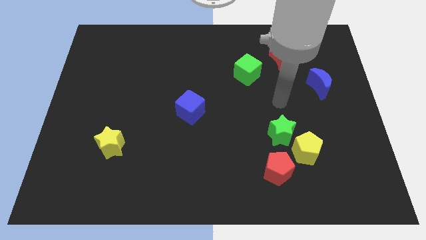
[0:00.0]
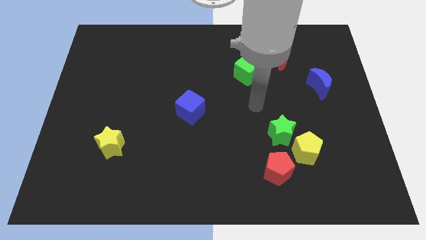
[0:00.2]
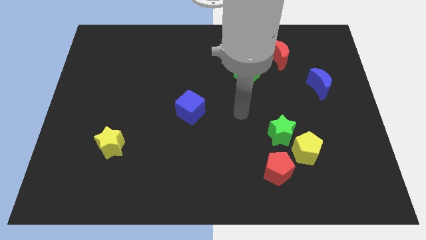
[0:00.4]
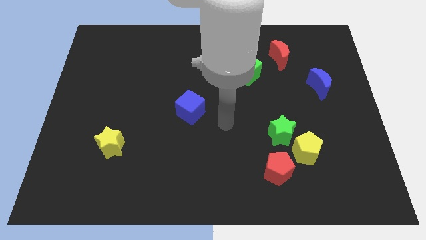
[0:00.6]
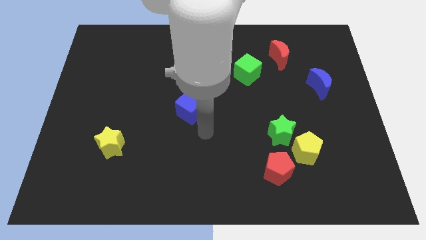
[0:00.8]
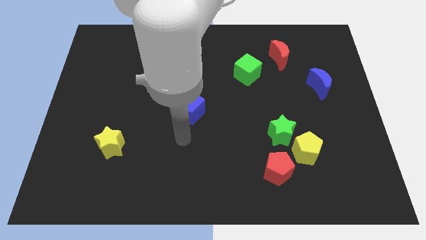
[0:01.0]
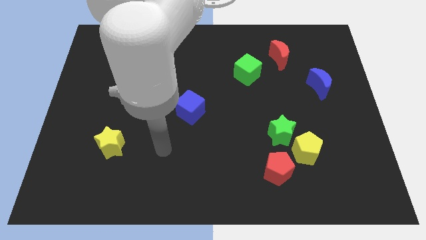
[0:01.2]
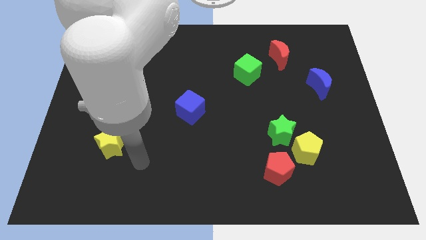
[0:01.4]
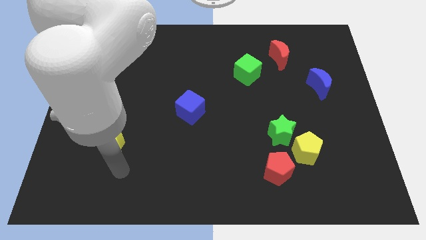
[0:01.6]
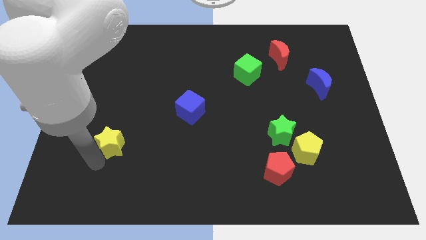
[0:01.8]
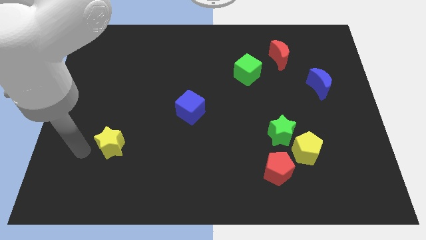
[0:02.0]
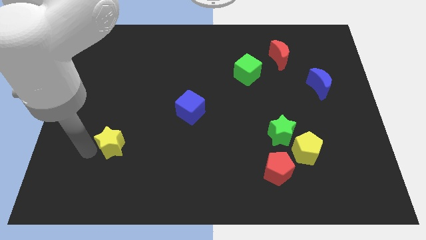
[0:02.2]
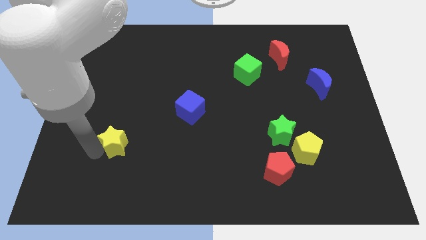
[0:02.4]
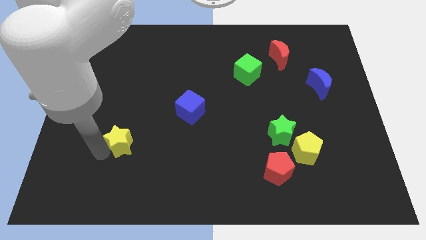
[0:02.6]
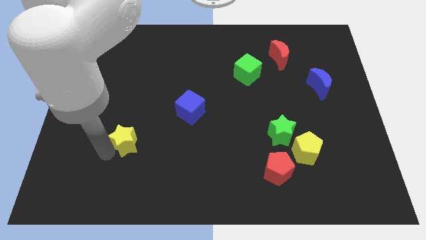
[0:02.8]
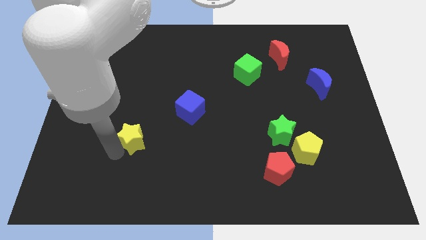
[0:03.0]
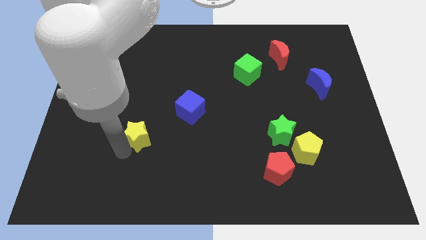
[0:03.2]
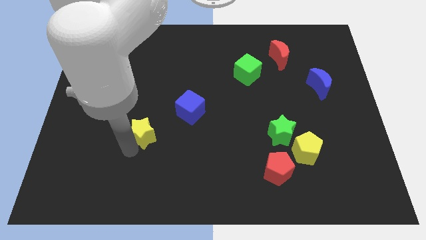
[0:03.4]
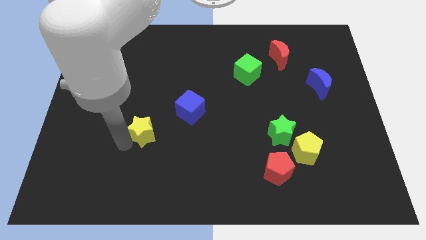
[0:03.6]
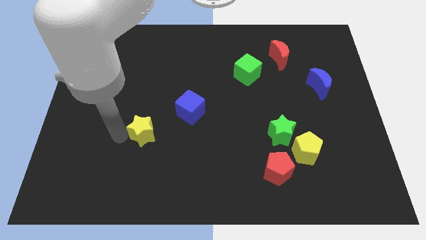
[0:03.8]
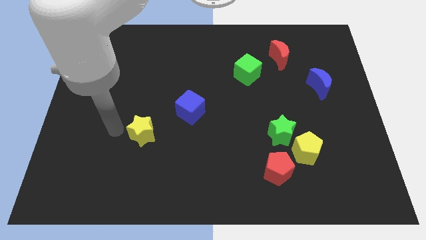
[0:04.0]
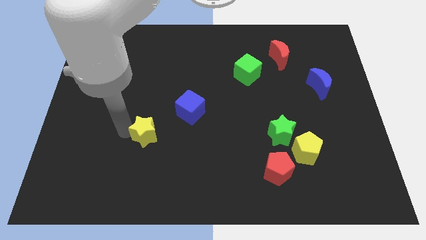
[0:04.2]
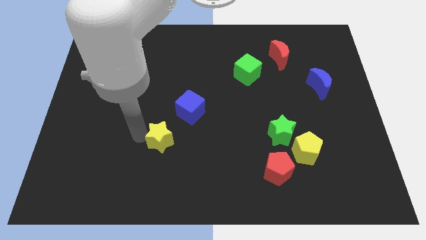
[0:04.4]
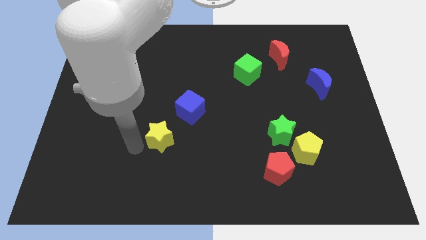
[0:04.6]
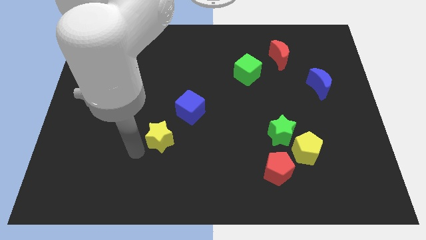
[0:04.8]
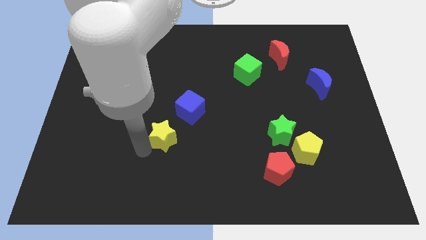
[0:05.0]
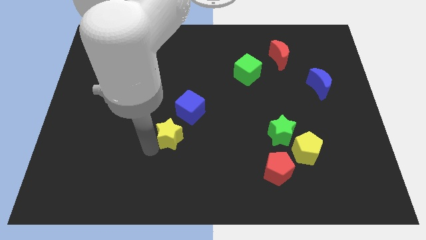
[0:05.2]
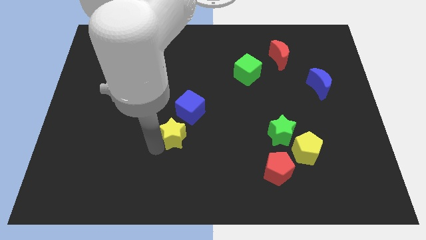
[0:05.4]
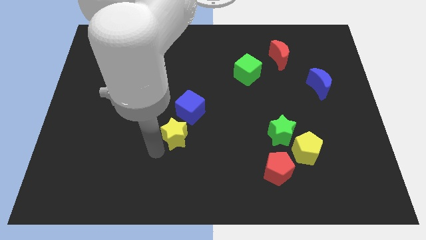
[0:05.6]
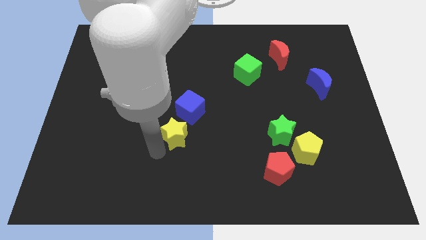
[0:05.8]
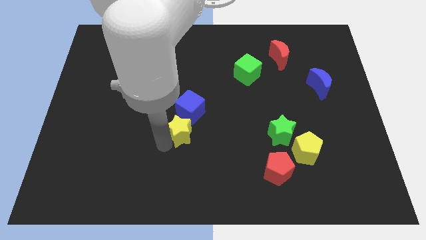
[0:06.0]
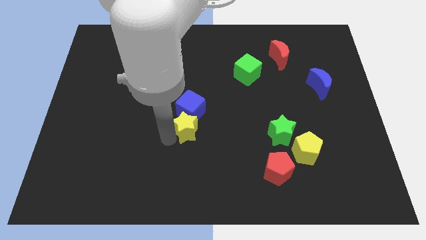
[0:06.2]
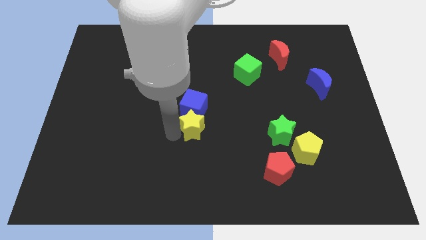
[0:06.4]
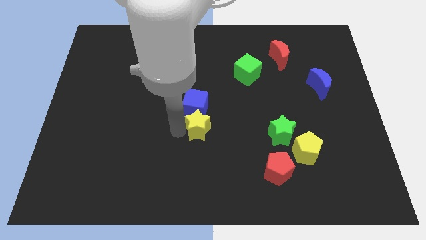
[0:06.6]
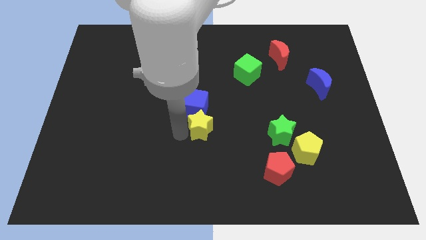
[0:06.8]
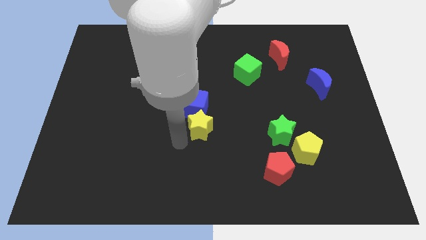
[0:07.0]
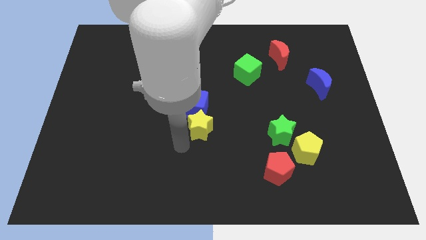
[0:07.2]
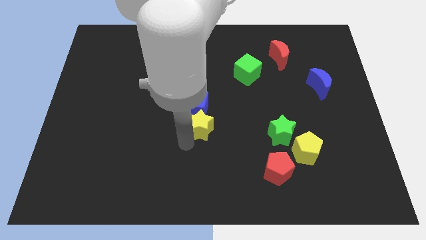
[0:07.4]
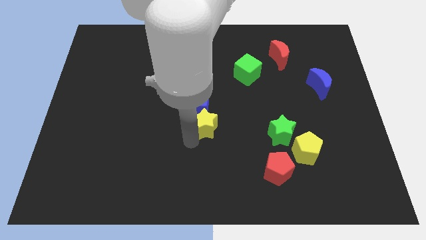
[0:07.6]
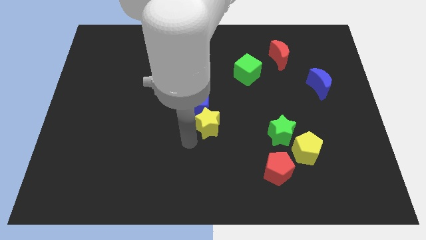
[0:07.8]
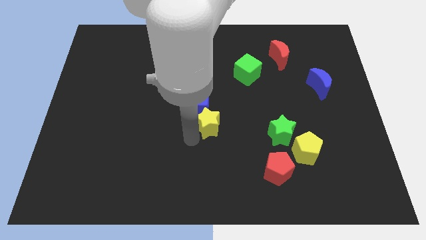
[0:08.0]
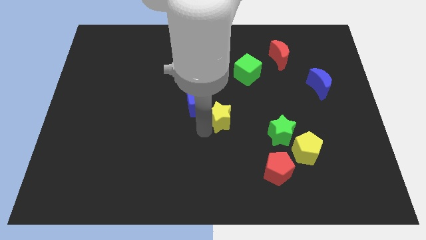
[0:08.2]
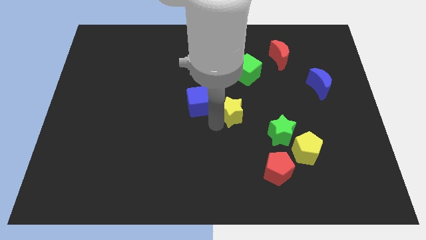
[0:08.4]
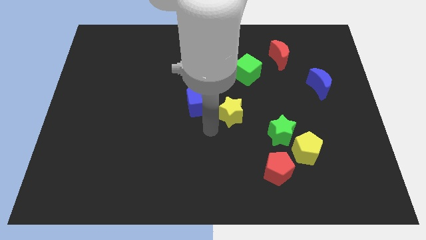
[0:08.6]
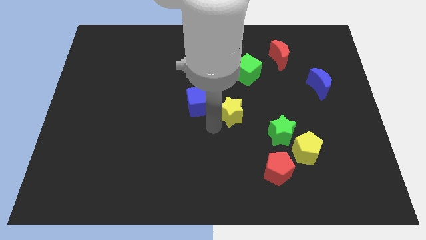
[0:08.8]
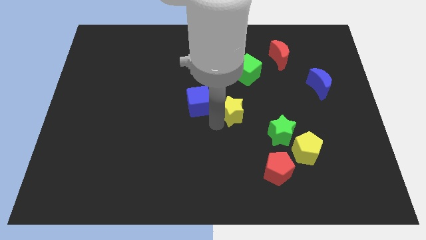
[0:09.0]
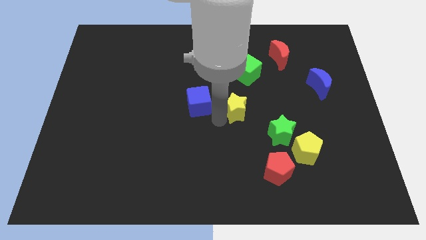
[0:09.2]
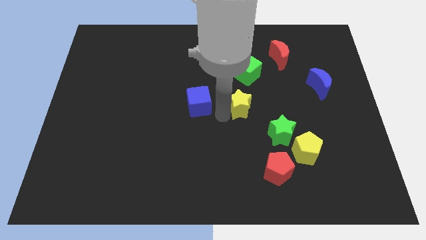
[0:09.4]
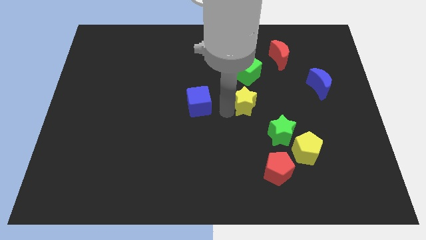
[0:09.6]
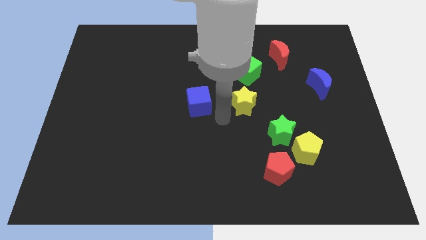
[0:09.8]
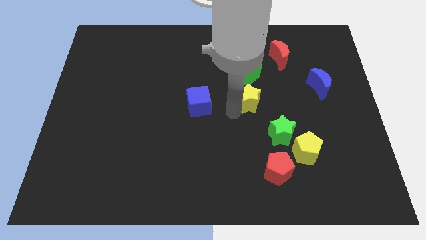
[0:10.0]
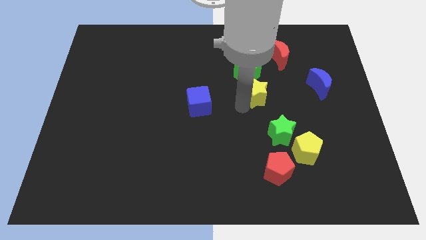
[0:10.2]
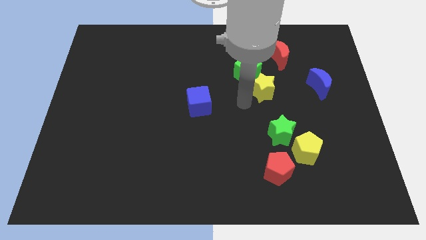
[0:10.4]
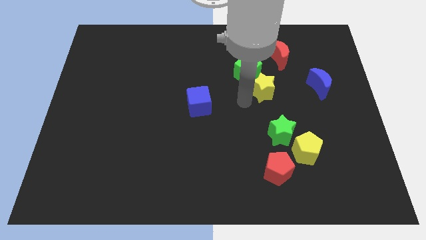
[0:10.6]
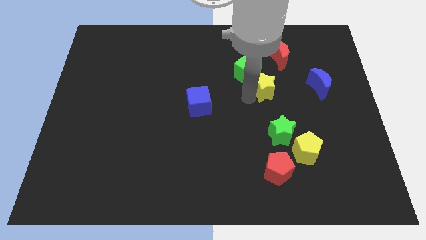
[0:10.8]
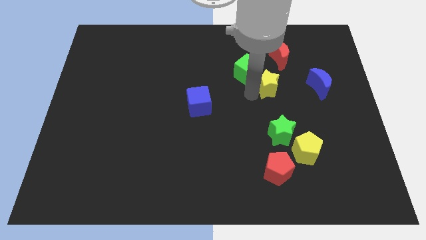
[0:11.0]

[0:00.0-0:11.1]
put the yellow star just right of the green cube

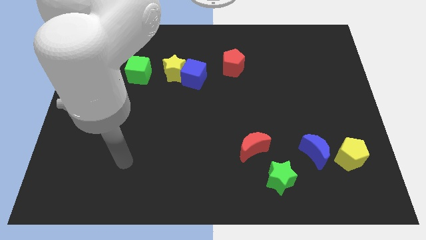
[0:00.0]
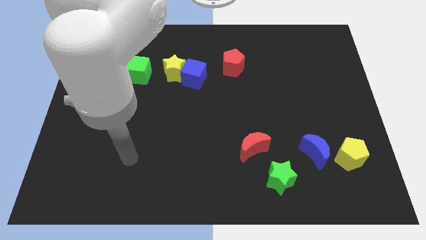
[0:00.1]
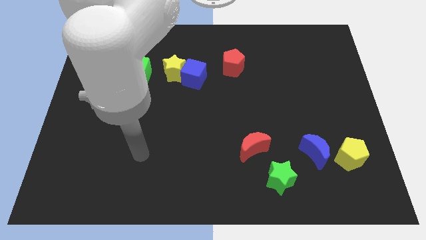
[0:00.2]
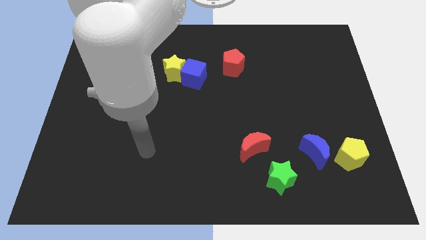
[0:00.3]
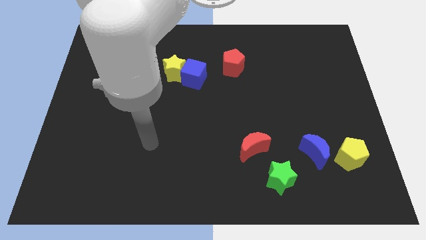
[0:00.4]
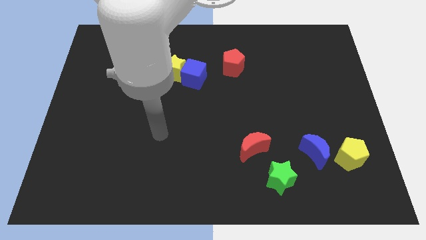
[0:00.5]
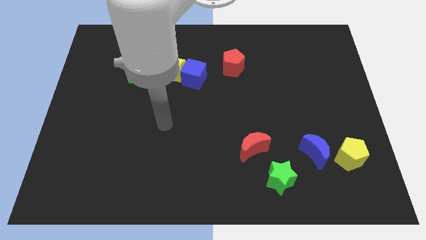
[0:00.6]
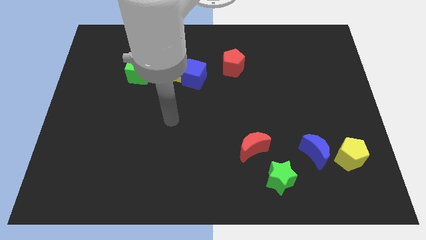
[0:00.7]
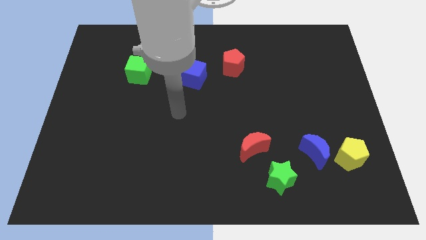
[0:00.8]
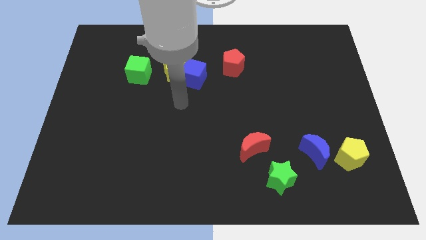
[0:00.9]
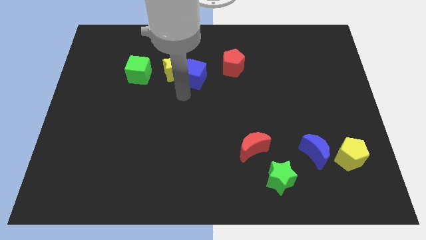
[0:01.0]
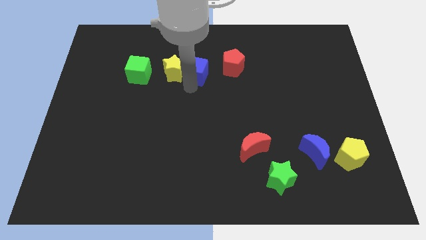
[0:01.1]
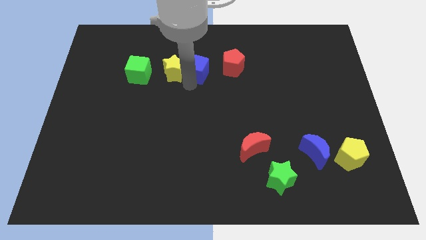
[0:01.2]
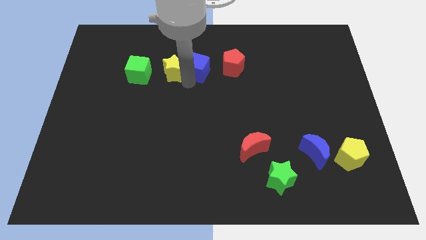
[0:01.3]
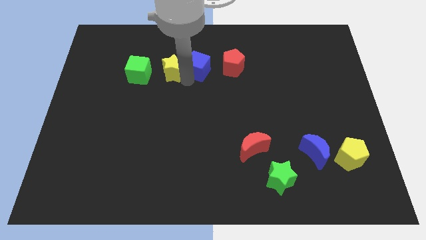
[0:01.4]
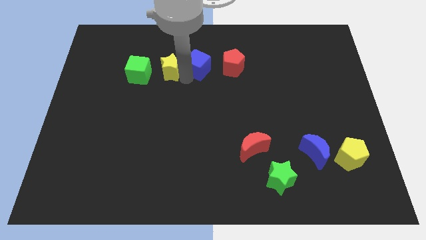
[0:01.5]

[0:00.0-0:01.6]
slide the yellow star to the top right of the green cube
